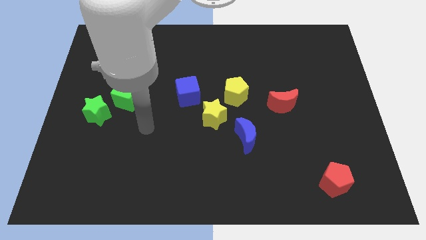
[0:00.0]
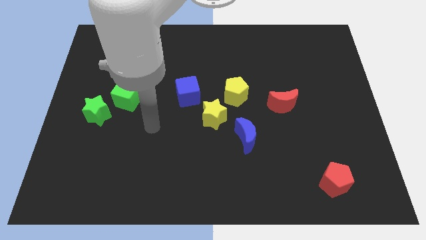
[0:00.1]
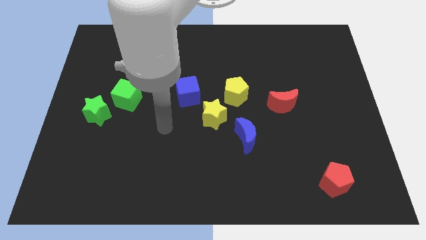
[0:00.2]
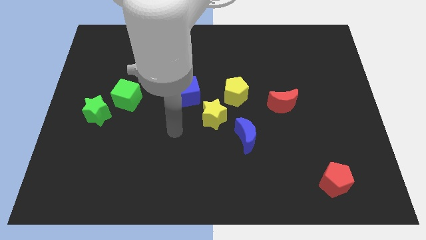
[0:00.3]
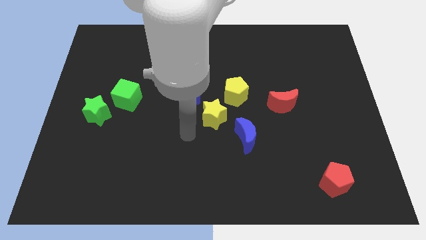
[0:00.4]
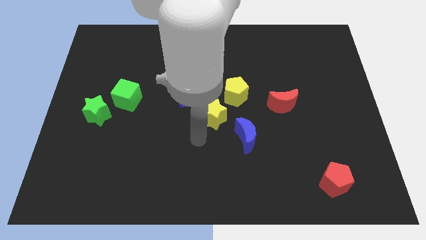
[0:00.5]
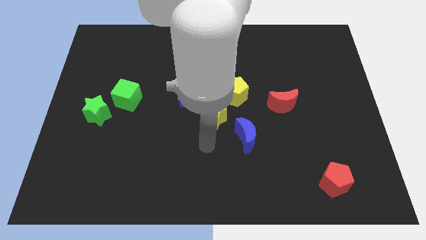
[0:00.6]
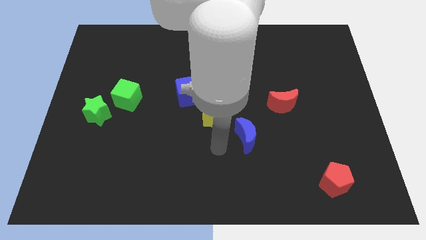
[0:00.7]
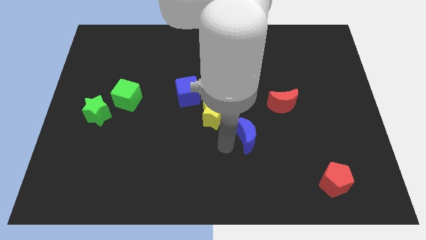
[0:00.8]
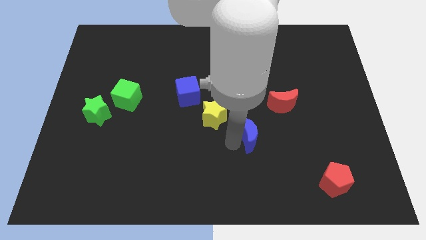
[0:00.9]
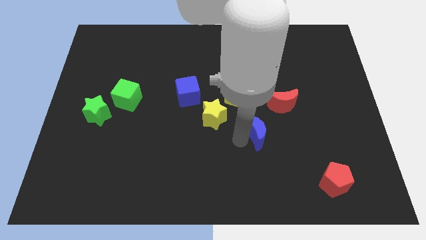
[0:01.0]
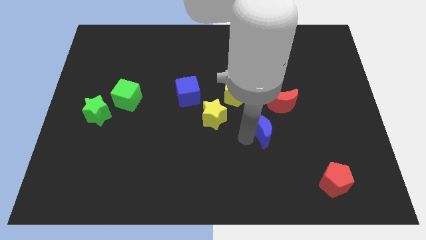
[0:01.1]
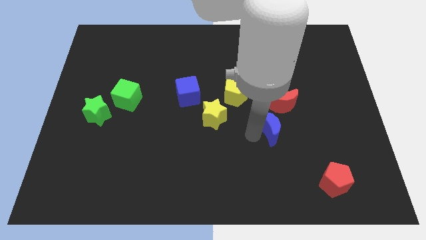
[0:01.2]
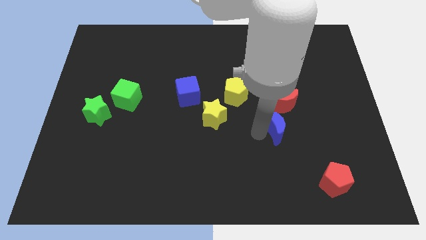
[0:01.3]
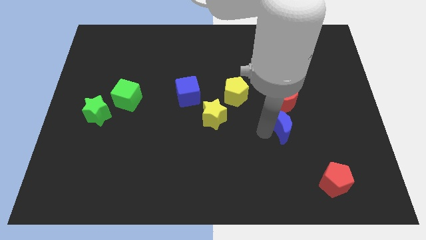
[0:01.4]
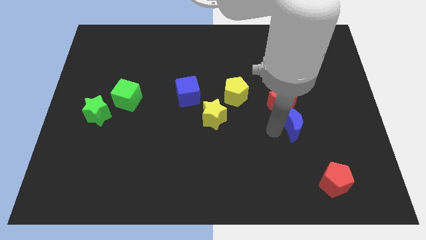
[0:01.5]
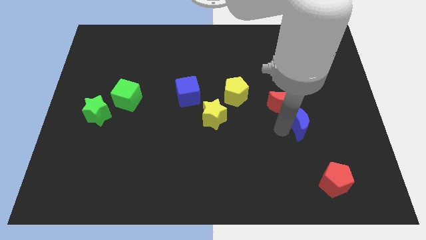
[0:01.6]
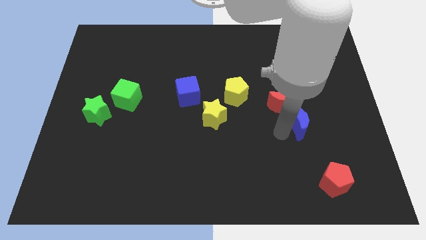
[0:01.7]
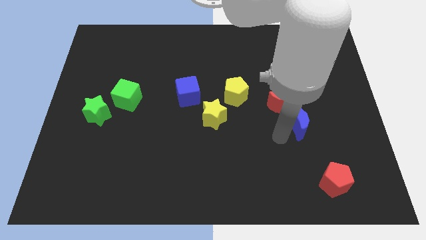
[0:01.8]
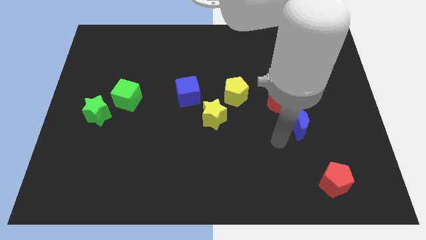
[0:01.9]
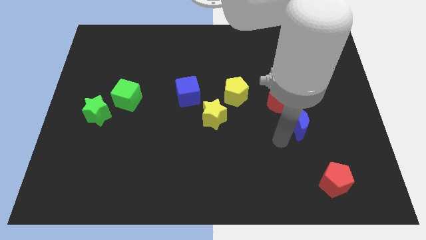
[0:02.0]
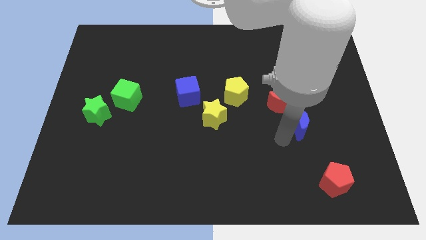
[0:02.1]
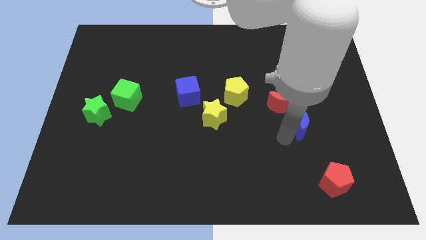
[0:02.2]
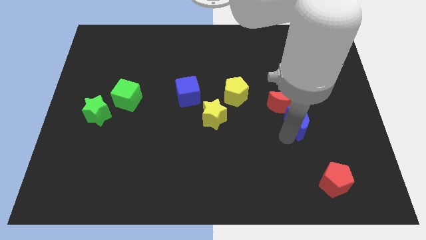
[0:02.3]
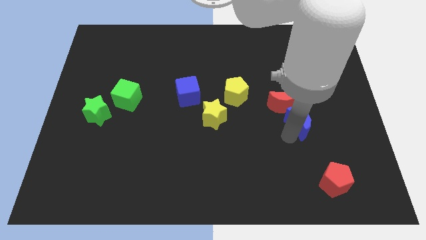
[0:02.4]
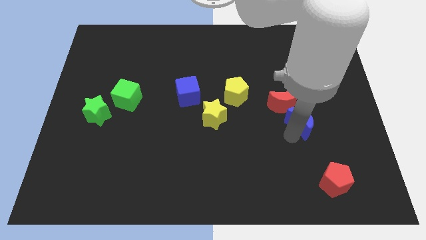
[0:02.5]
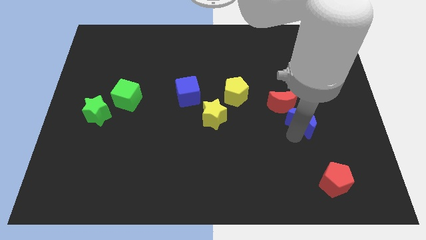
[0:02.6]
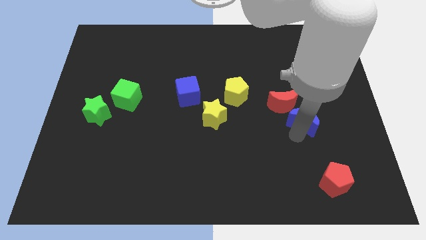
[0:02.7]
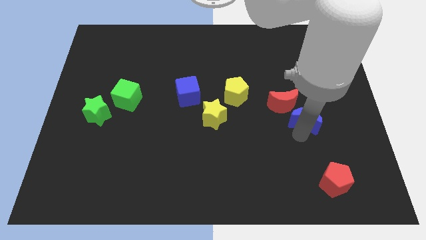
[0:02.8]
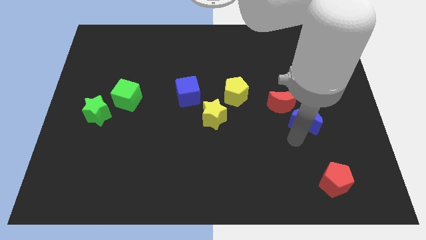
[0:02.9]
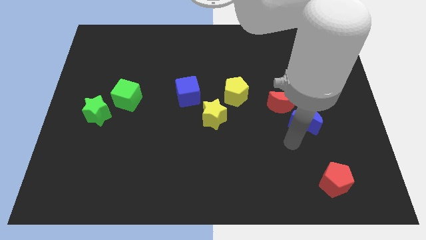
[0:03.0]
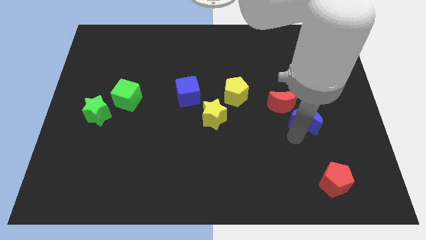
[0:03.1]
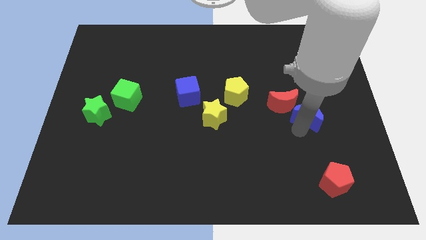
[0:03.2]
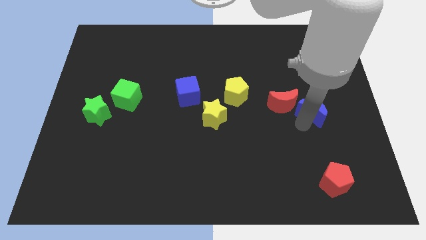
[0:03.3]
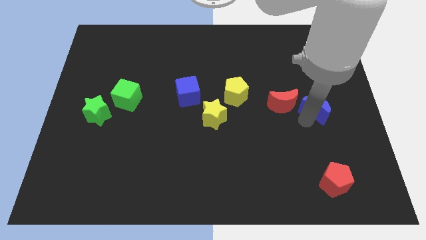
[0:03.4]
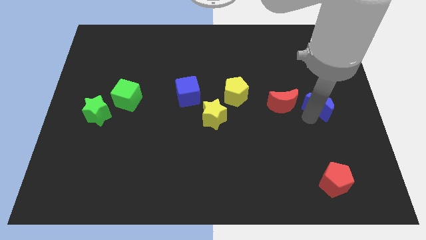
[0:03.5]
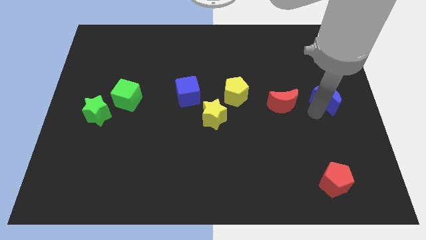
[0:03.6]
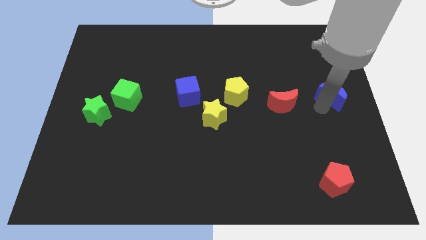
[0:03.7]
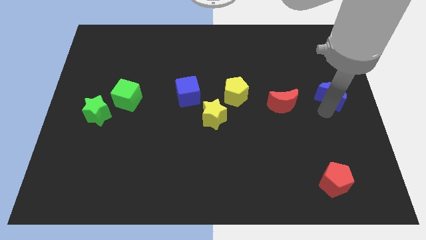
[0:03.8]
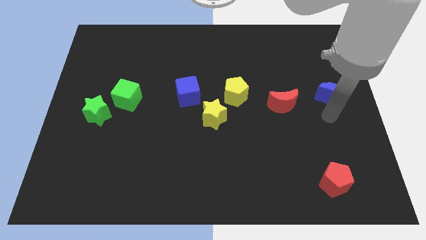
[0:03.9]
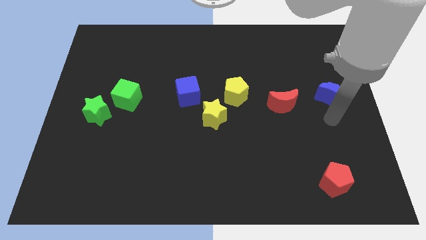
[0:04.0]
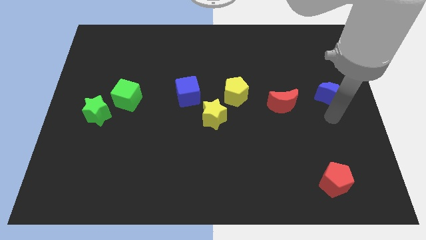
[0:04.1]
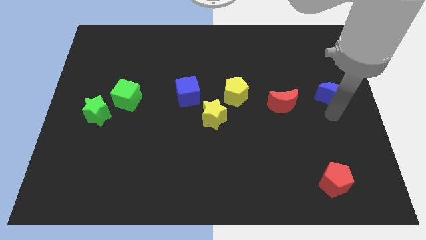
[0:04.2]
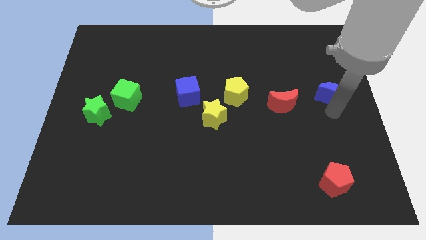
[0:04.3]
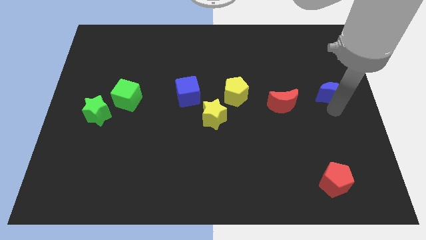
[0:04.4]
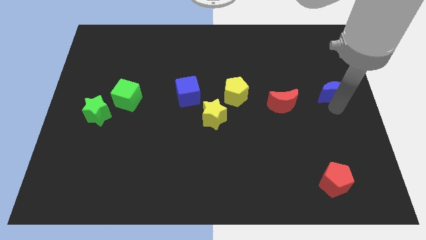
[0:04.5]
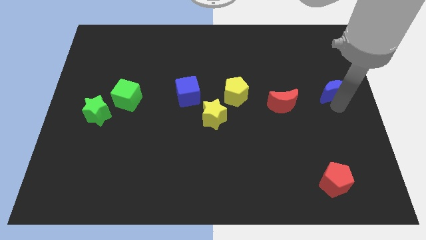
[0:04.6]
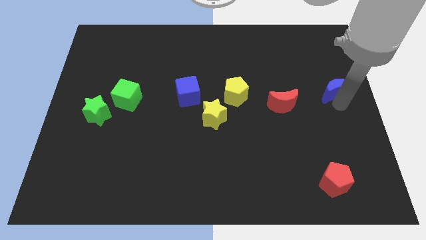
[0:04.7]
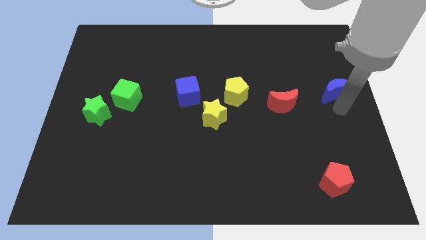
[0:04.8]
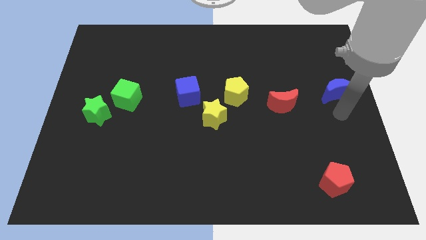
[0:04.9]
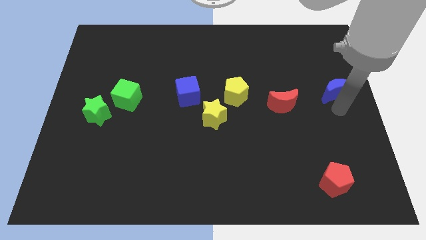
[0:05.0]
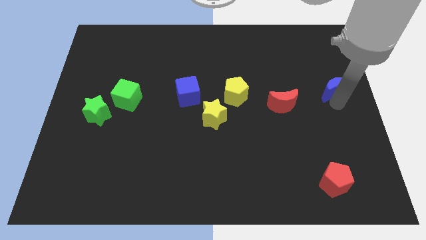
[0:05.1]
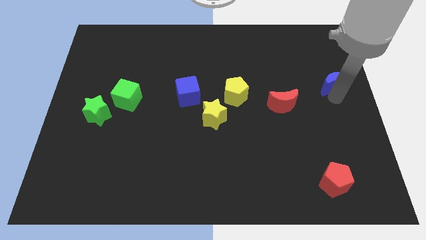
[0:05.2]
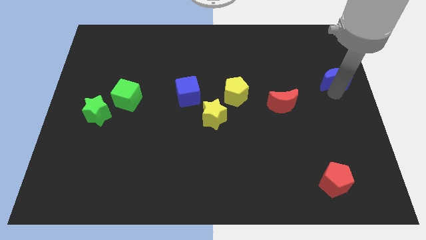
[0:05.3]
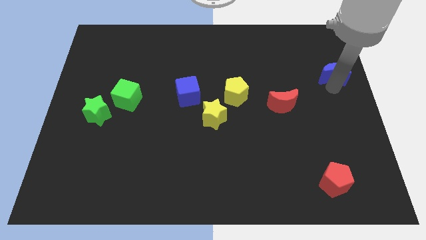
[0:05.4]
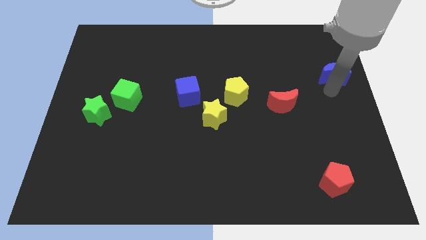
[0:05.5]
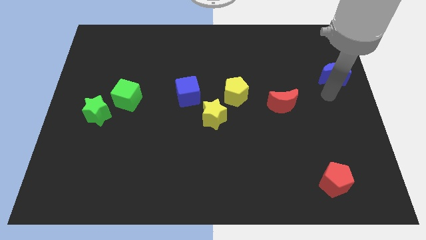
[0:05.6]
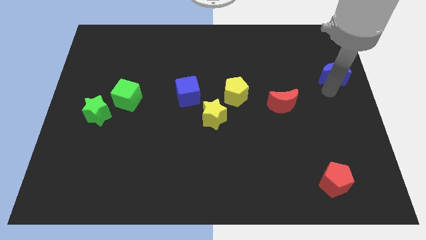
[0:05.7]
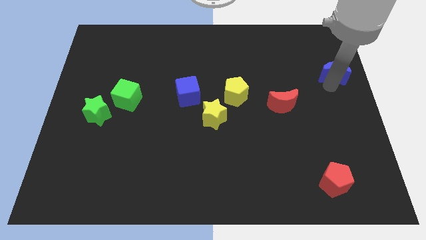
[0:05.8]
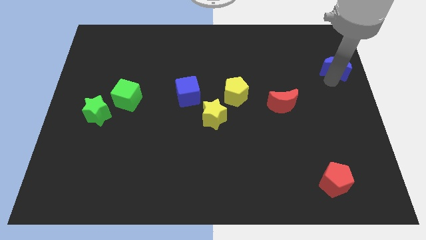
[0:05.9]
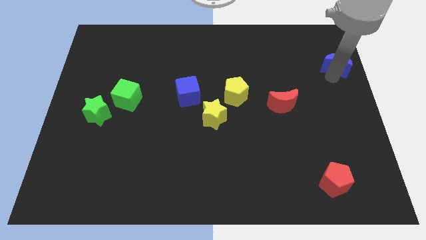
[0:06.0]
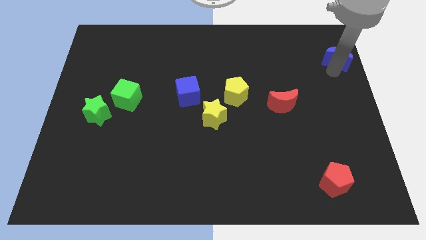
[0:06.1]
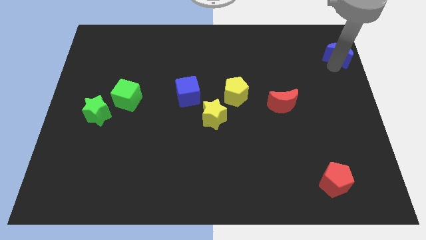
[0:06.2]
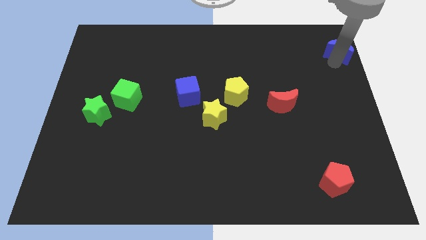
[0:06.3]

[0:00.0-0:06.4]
put the blue moon to the top right corner

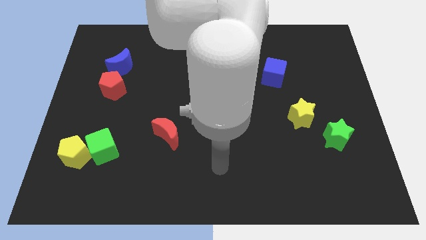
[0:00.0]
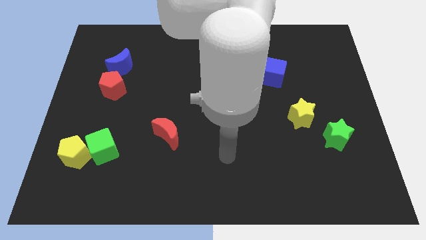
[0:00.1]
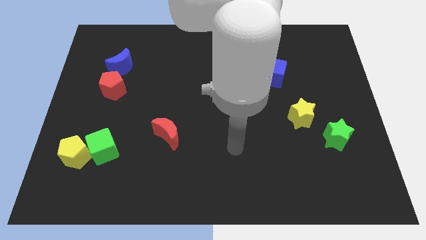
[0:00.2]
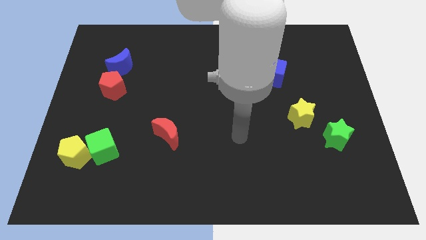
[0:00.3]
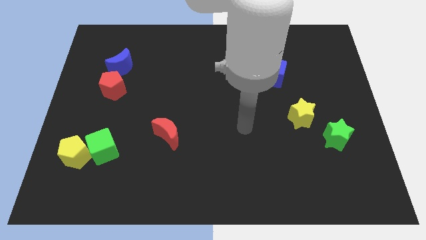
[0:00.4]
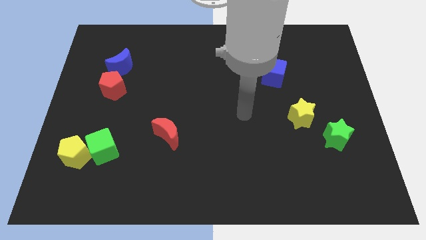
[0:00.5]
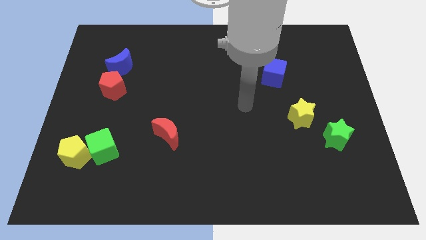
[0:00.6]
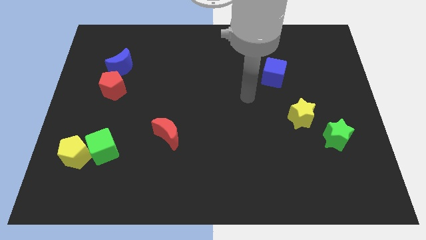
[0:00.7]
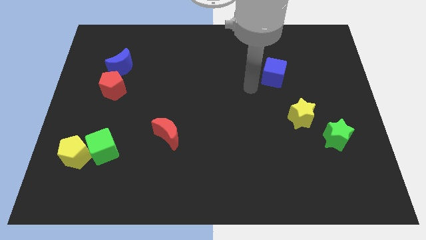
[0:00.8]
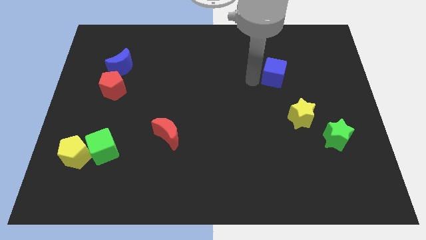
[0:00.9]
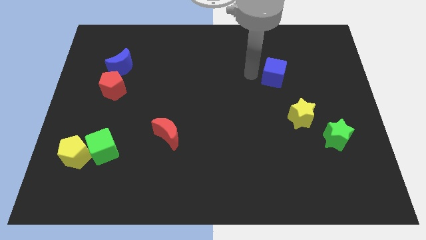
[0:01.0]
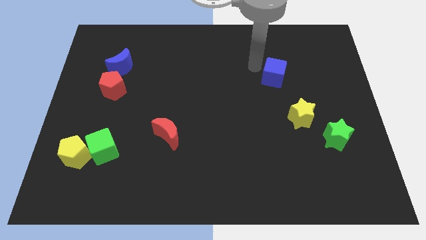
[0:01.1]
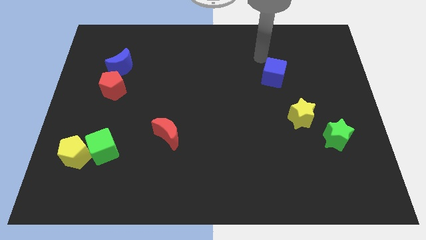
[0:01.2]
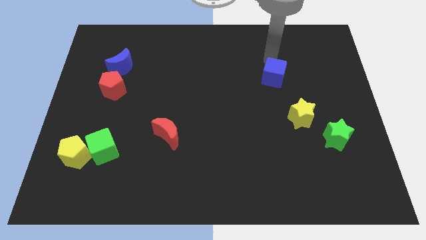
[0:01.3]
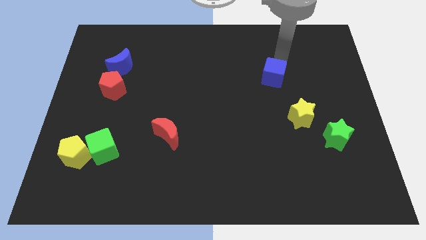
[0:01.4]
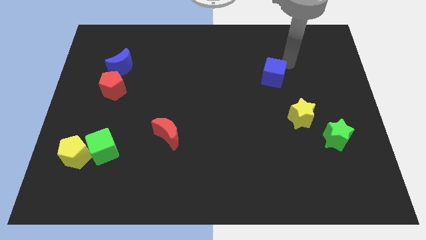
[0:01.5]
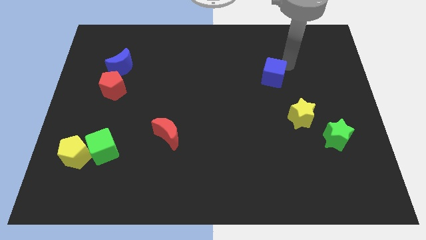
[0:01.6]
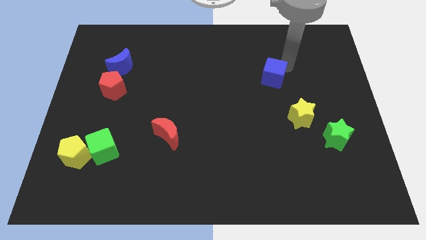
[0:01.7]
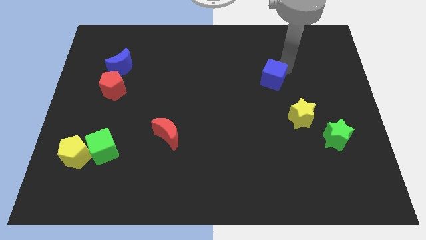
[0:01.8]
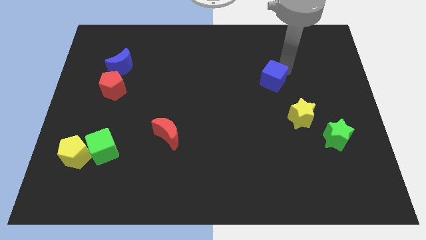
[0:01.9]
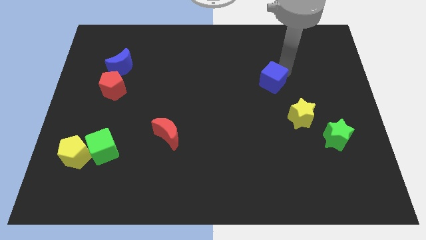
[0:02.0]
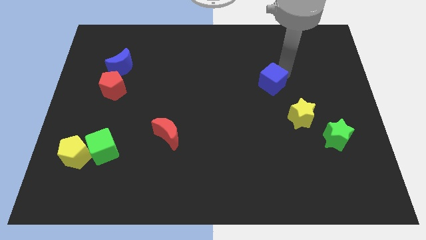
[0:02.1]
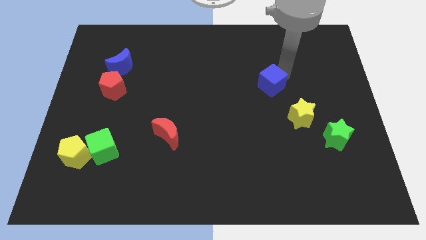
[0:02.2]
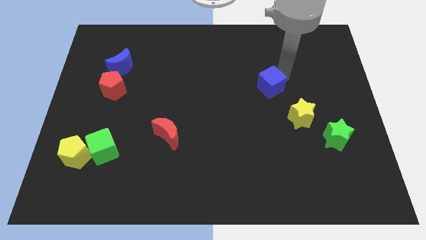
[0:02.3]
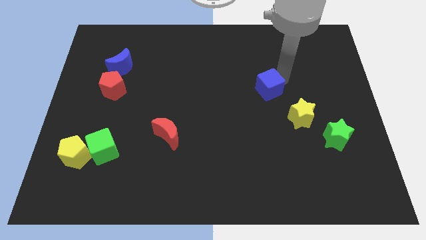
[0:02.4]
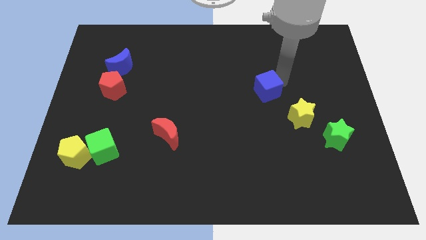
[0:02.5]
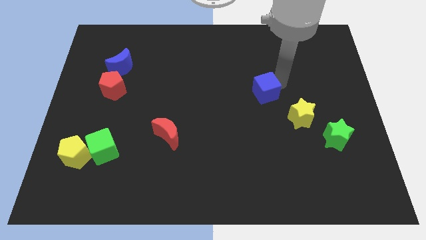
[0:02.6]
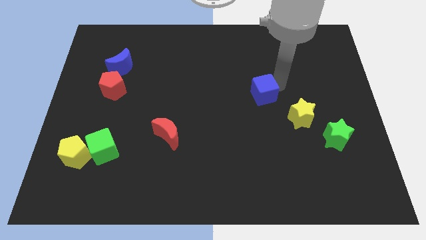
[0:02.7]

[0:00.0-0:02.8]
move the blue cube to the center of the board
